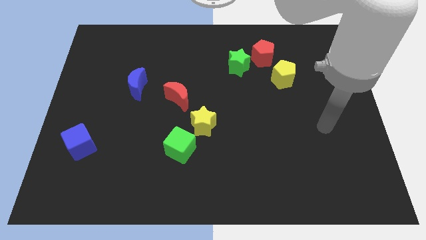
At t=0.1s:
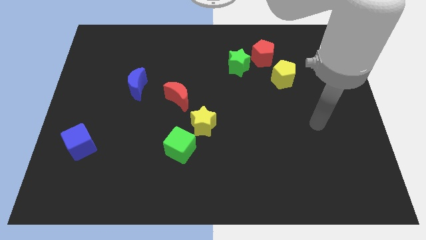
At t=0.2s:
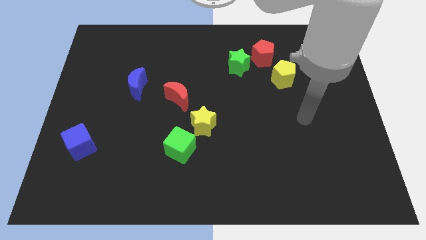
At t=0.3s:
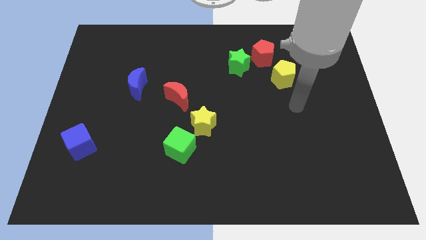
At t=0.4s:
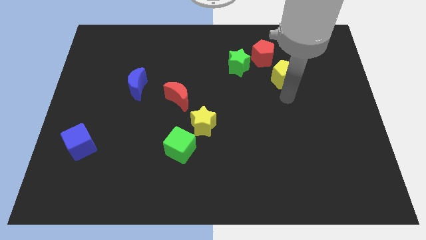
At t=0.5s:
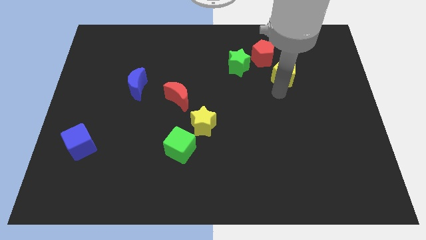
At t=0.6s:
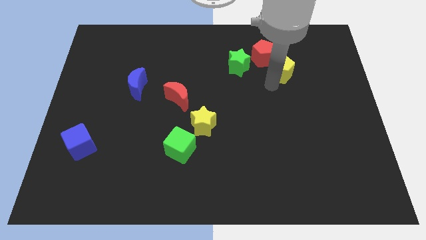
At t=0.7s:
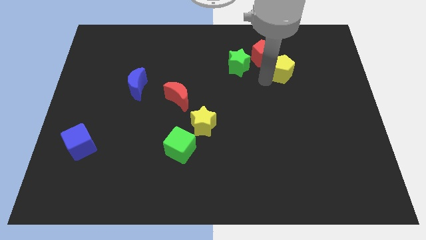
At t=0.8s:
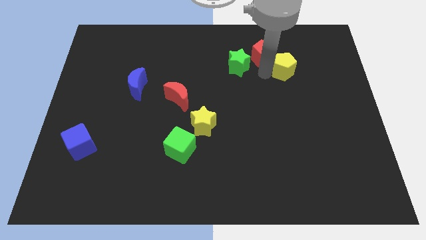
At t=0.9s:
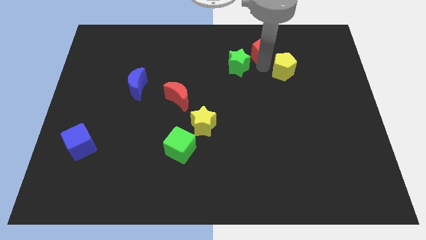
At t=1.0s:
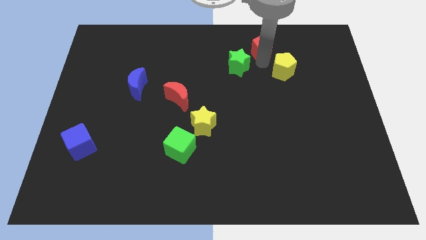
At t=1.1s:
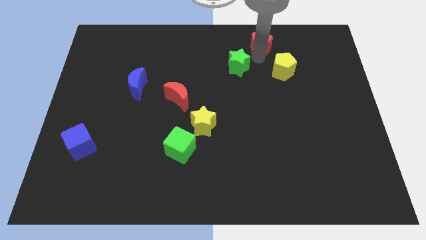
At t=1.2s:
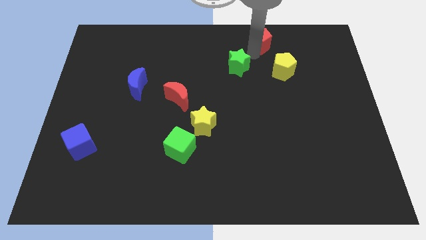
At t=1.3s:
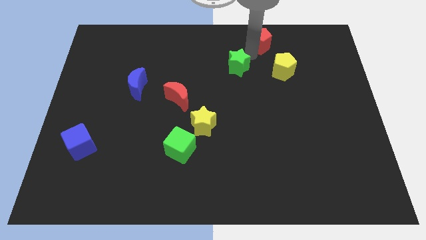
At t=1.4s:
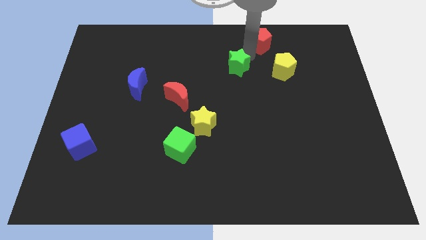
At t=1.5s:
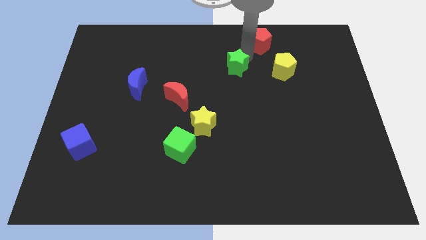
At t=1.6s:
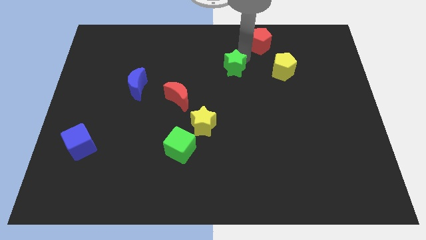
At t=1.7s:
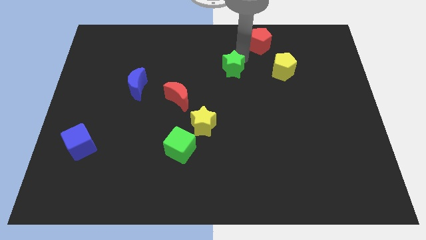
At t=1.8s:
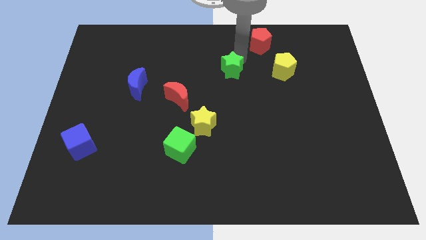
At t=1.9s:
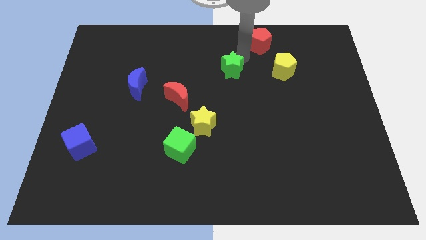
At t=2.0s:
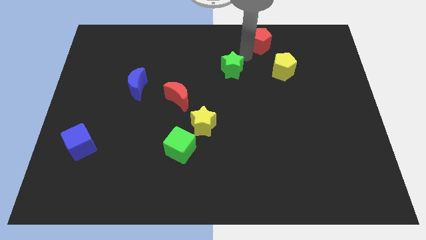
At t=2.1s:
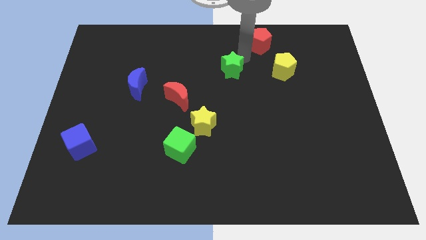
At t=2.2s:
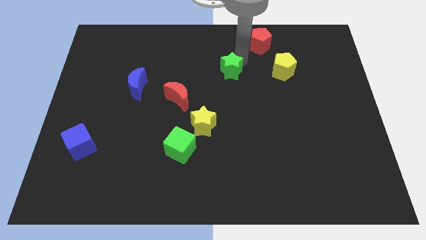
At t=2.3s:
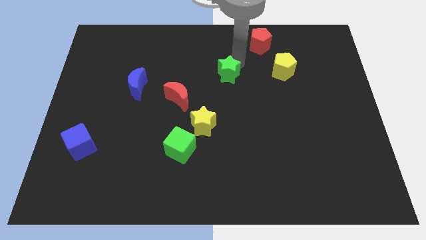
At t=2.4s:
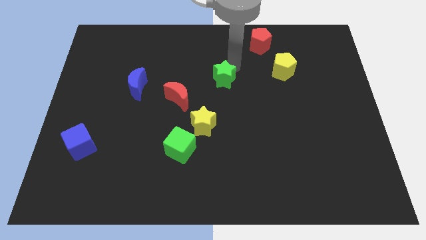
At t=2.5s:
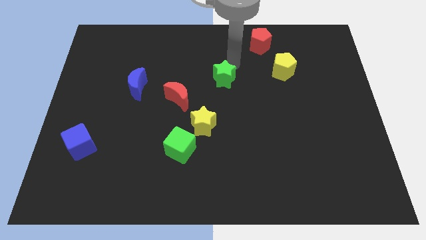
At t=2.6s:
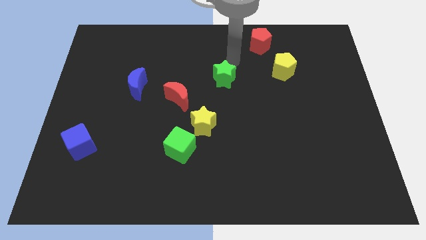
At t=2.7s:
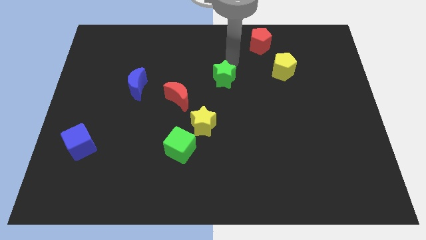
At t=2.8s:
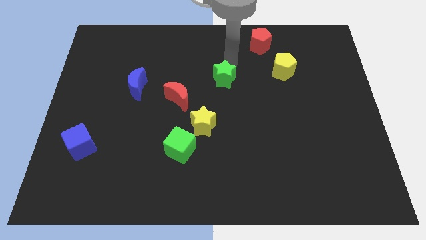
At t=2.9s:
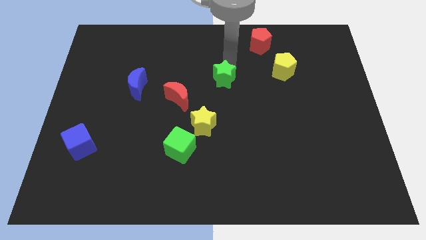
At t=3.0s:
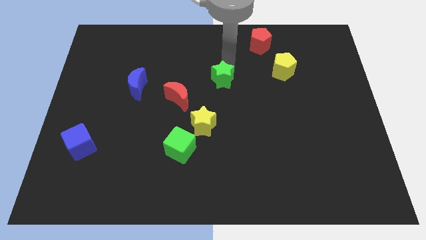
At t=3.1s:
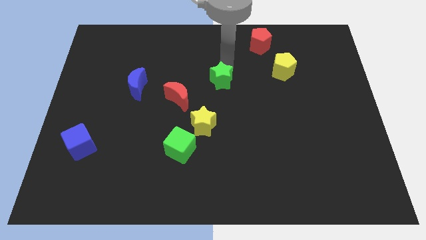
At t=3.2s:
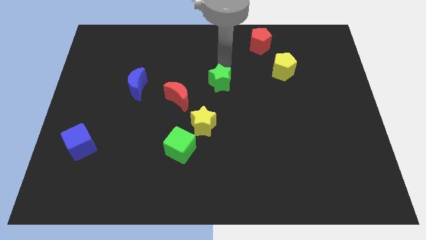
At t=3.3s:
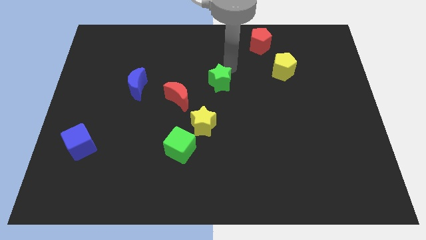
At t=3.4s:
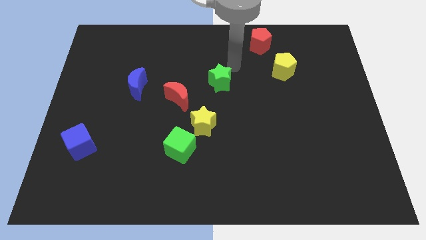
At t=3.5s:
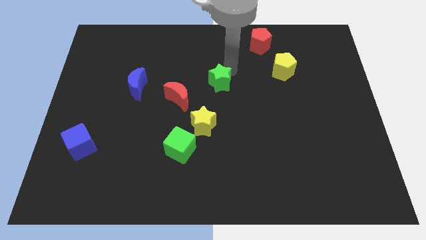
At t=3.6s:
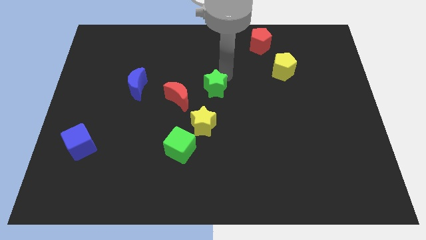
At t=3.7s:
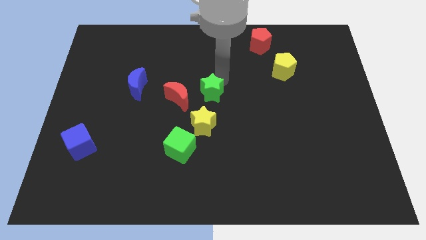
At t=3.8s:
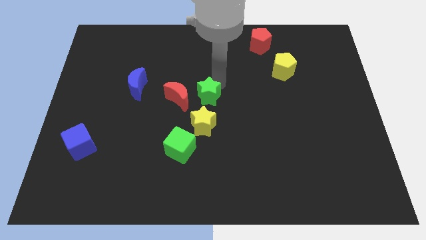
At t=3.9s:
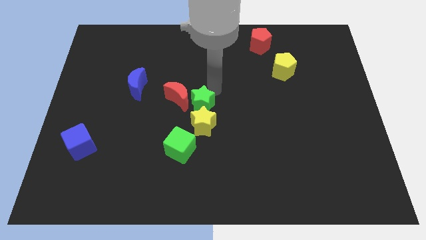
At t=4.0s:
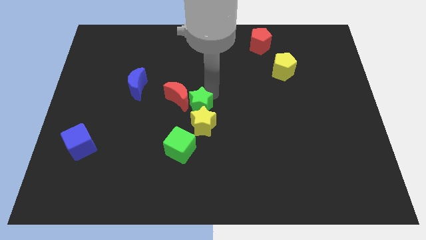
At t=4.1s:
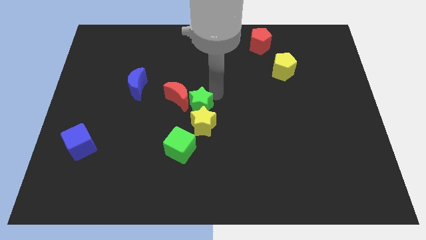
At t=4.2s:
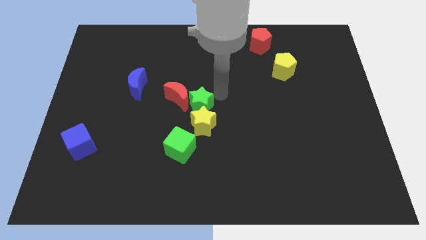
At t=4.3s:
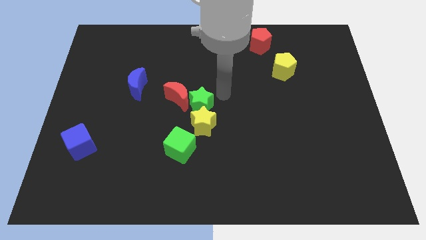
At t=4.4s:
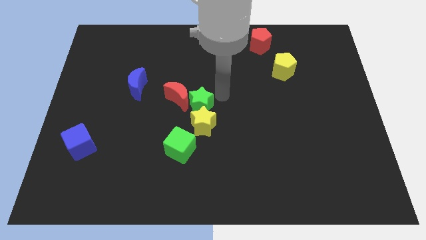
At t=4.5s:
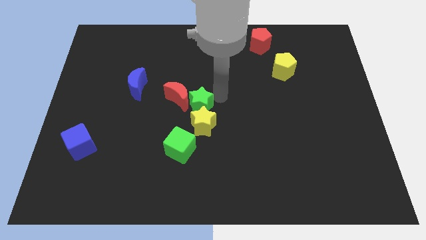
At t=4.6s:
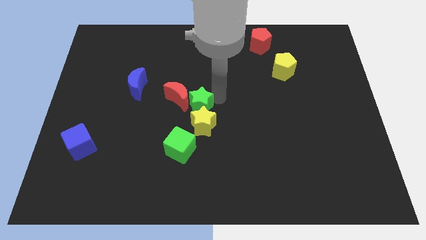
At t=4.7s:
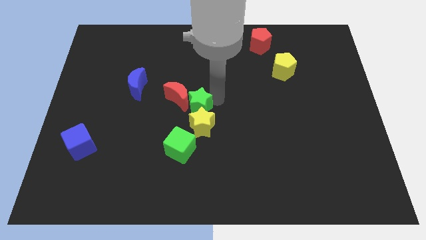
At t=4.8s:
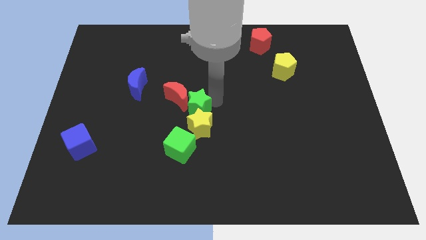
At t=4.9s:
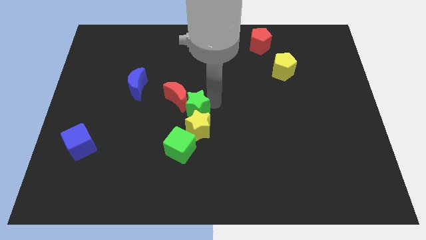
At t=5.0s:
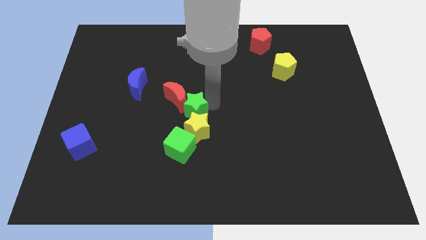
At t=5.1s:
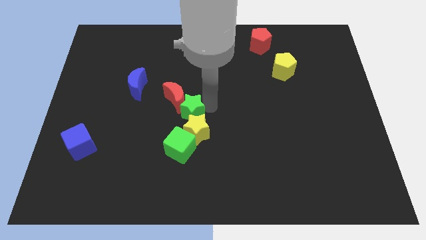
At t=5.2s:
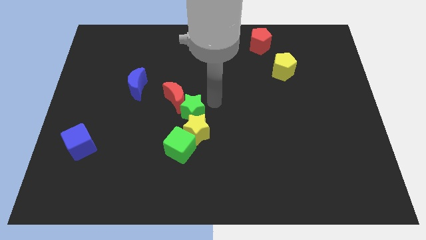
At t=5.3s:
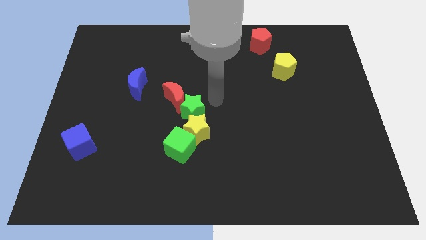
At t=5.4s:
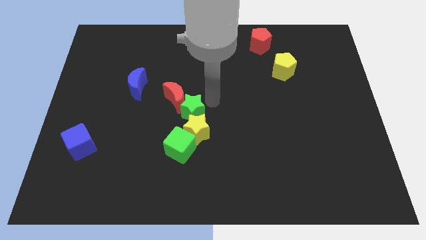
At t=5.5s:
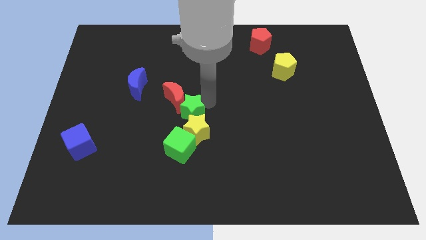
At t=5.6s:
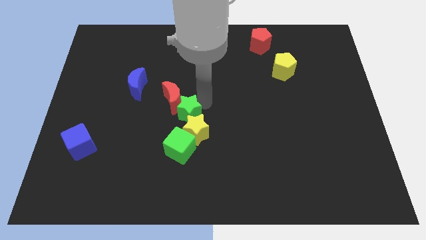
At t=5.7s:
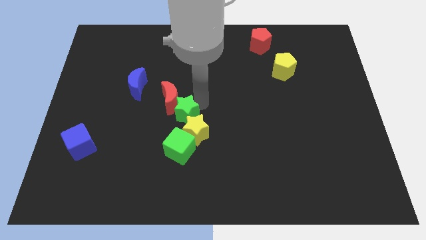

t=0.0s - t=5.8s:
move the green star downwards and to the left diagonally

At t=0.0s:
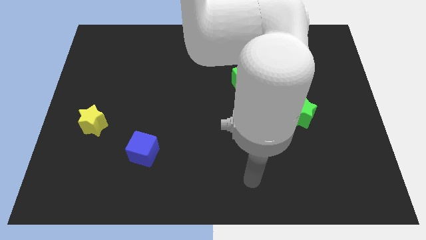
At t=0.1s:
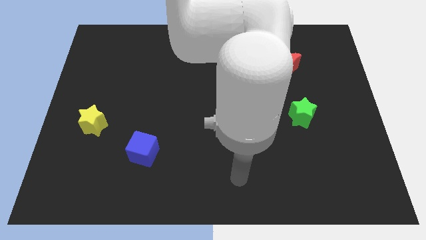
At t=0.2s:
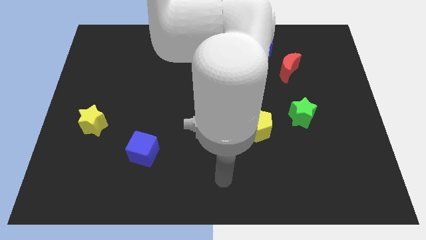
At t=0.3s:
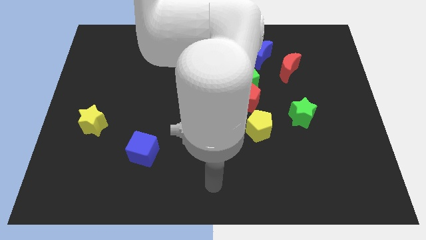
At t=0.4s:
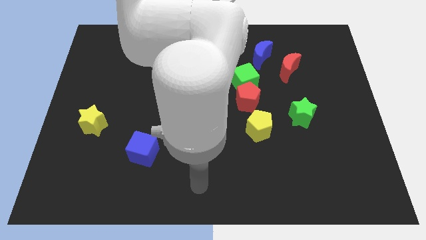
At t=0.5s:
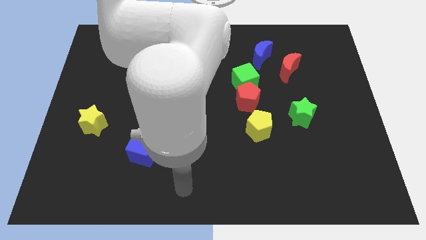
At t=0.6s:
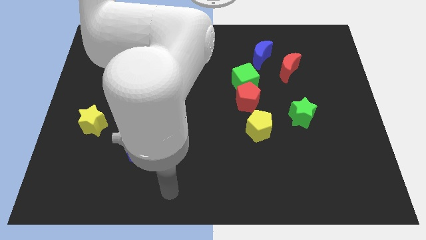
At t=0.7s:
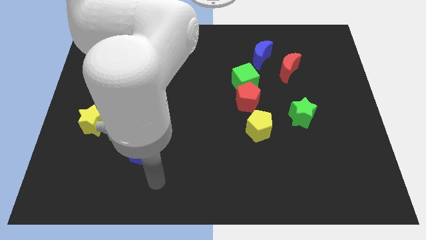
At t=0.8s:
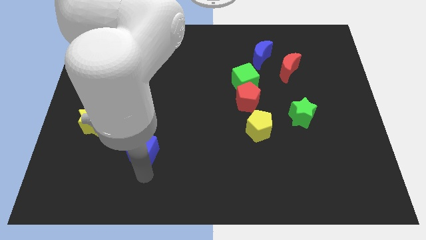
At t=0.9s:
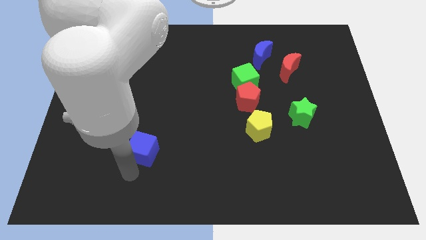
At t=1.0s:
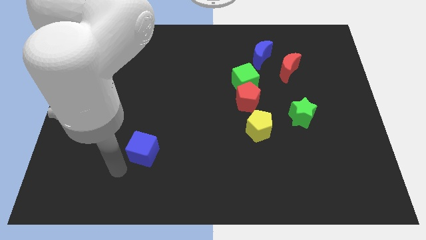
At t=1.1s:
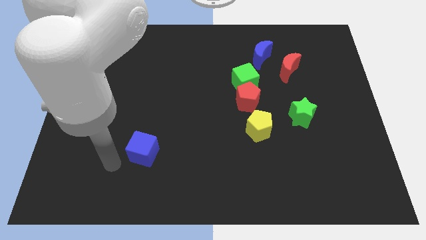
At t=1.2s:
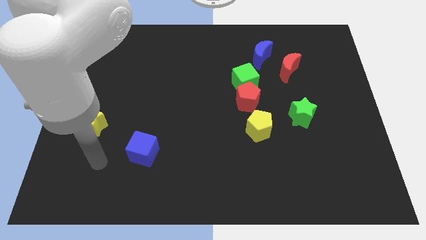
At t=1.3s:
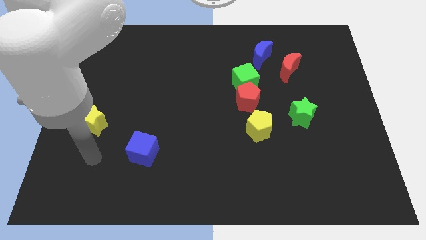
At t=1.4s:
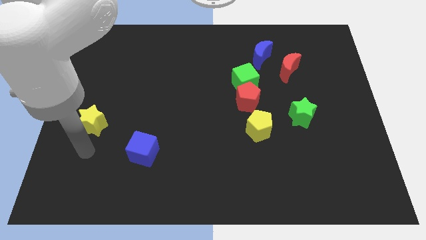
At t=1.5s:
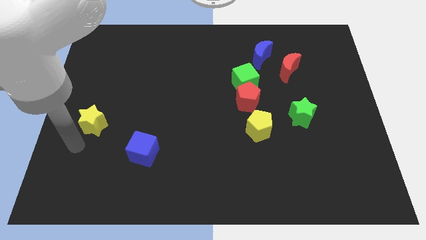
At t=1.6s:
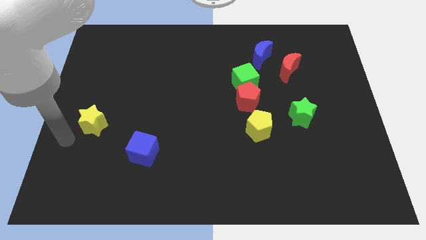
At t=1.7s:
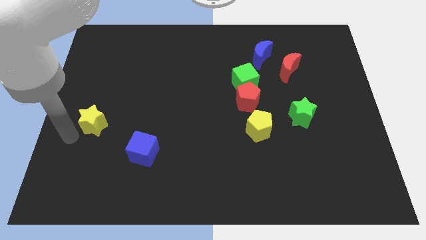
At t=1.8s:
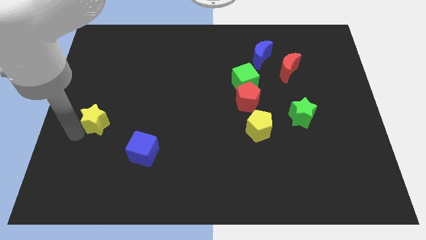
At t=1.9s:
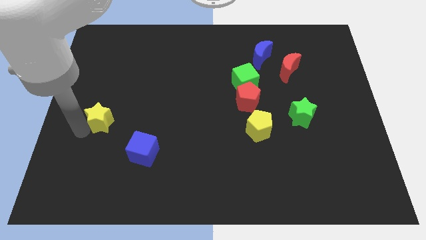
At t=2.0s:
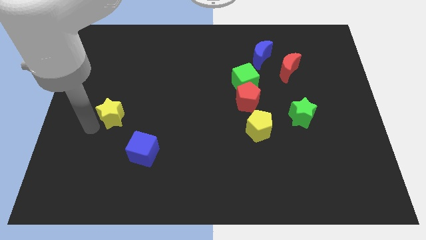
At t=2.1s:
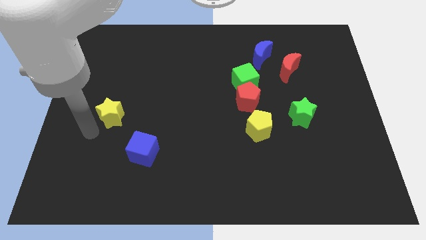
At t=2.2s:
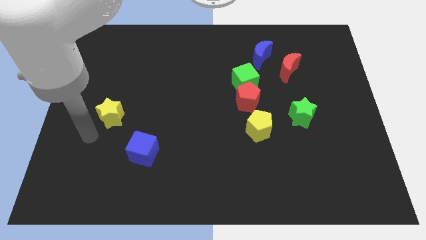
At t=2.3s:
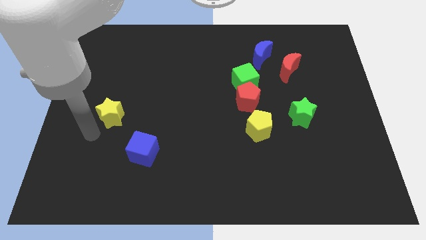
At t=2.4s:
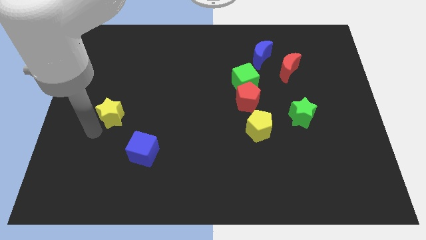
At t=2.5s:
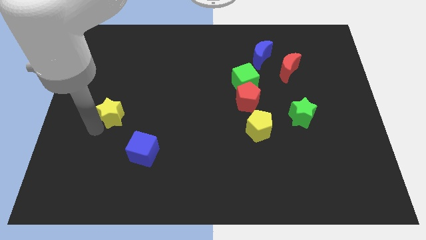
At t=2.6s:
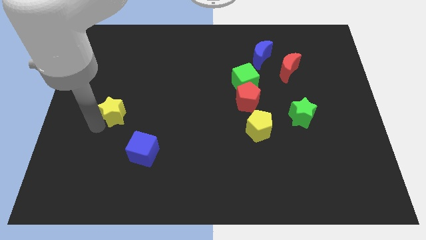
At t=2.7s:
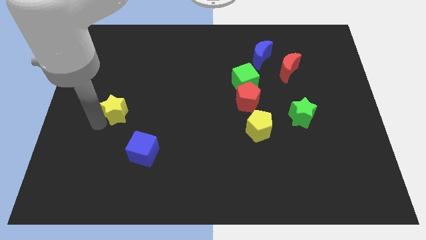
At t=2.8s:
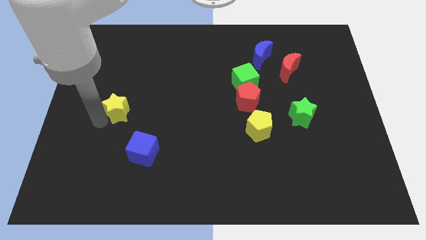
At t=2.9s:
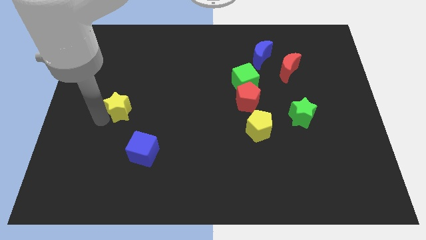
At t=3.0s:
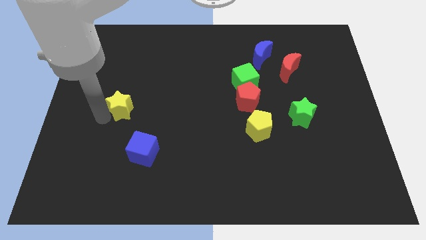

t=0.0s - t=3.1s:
slightly slide the yellow star diagonally up and right
